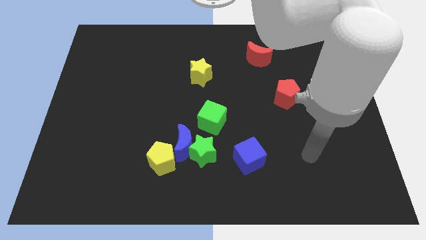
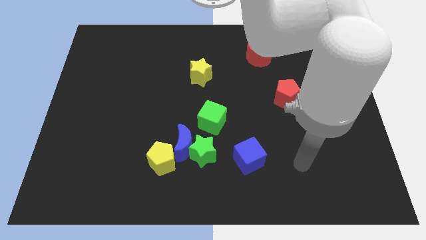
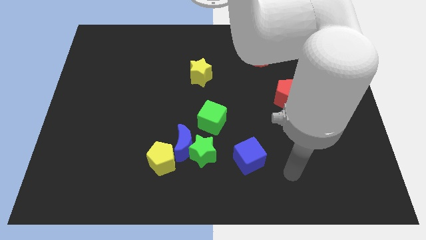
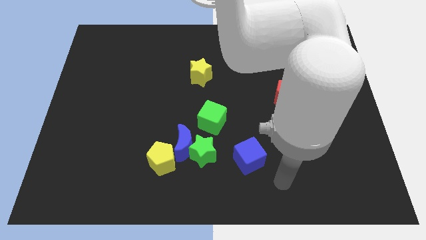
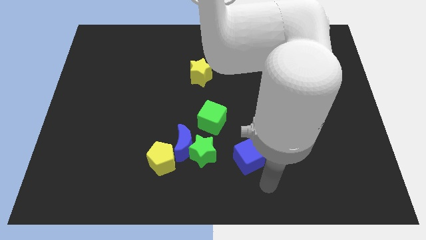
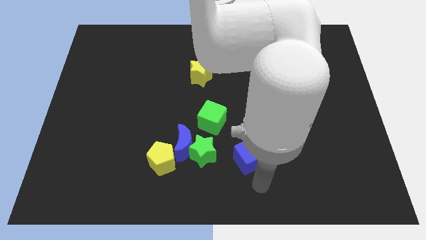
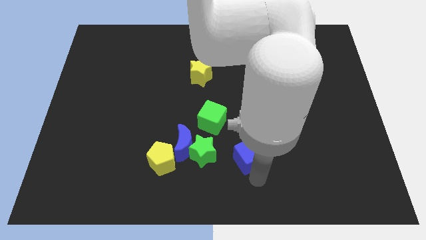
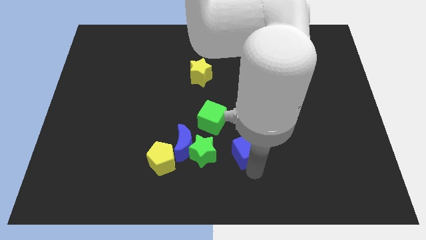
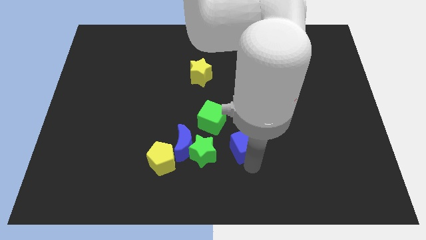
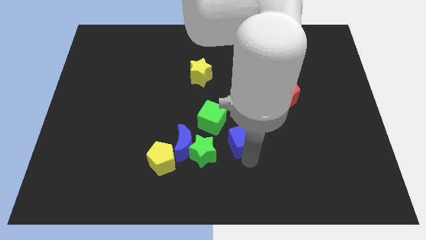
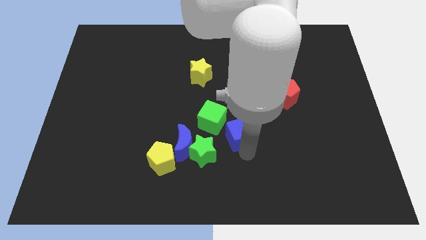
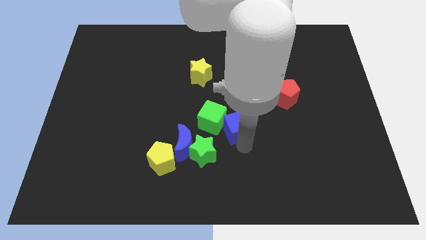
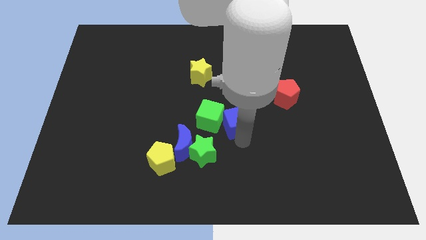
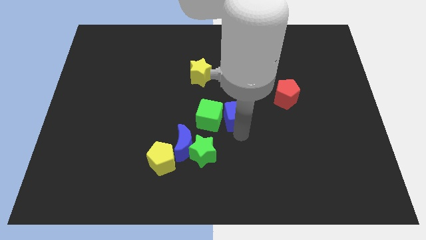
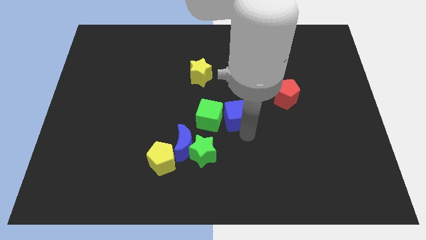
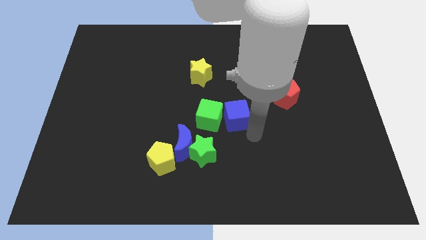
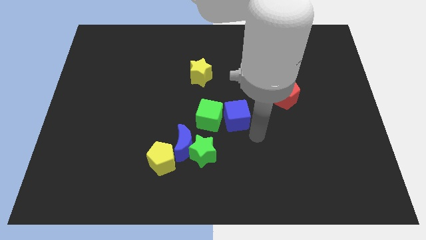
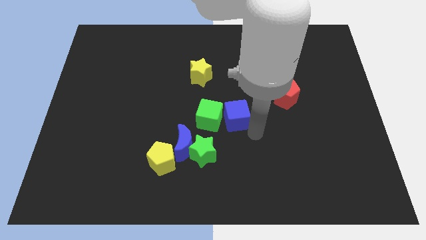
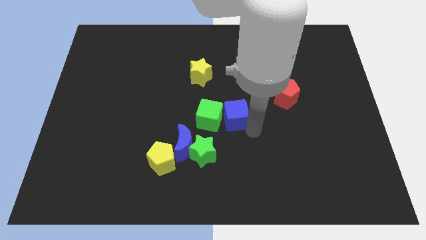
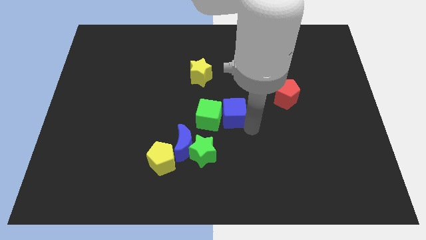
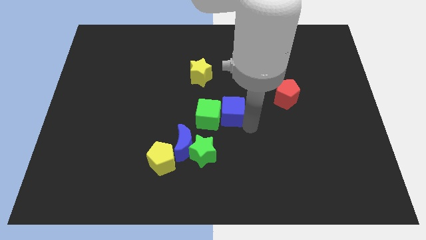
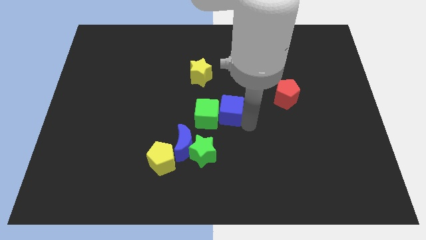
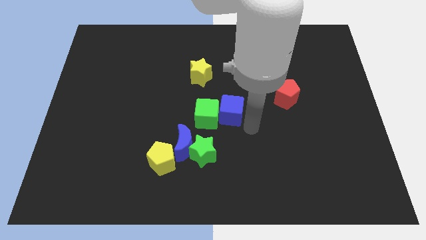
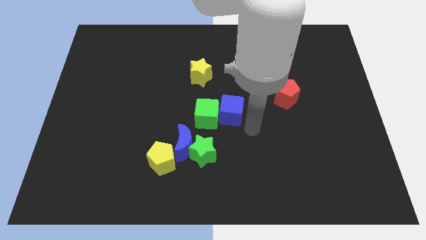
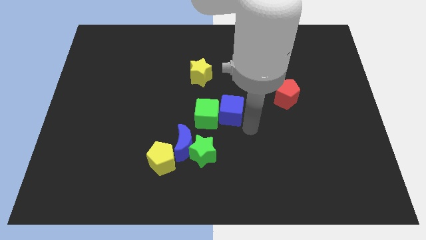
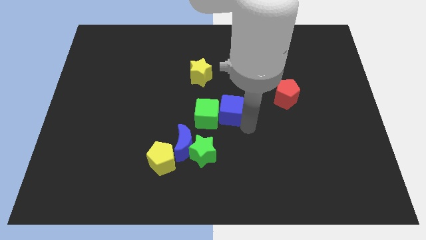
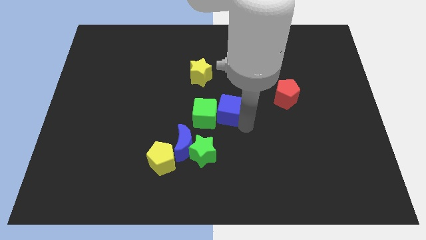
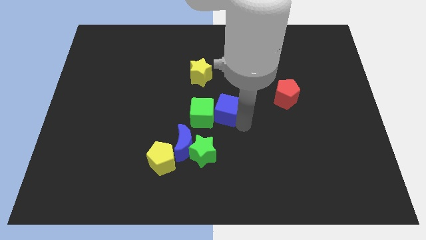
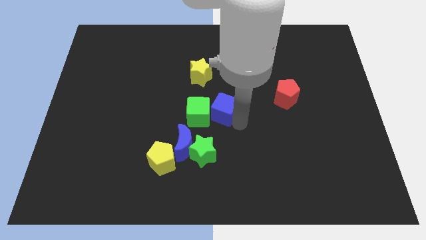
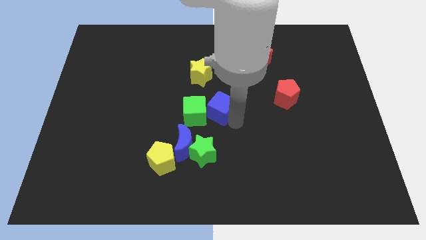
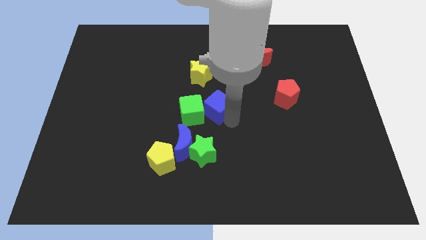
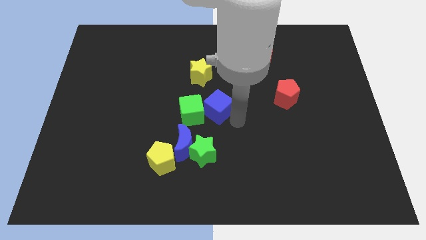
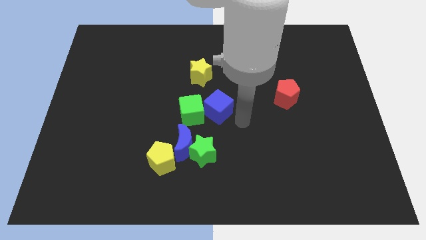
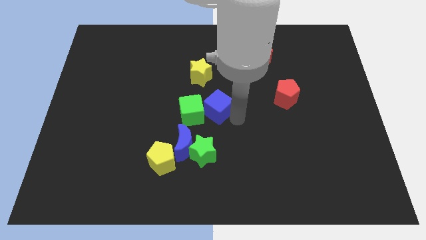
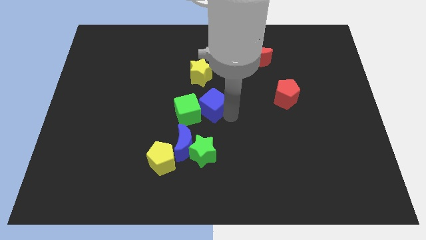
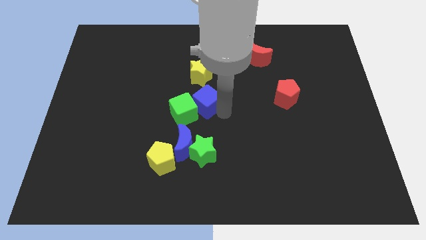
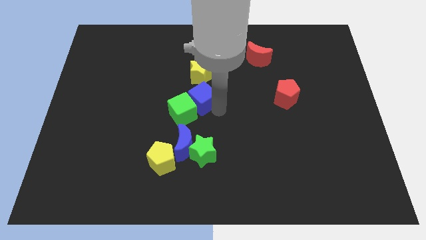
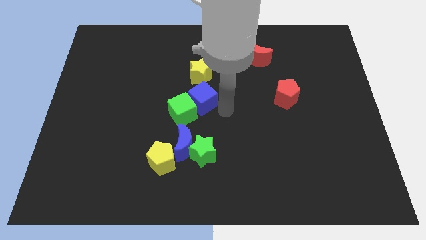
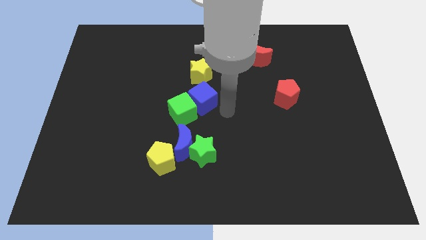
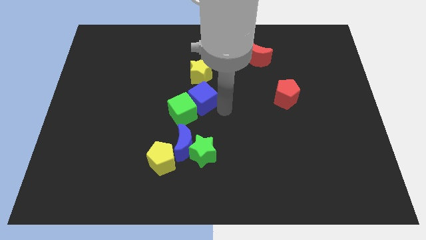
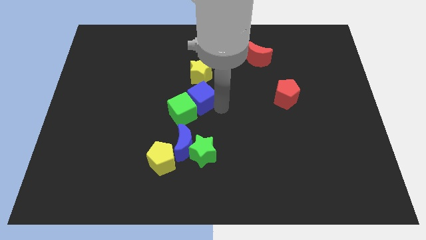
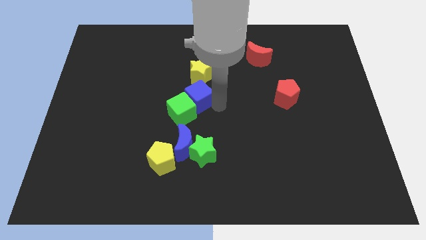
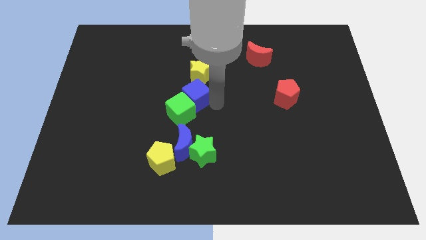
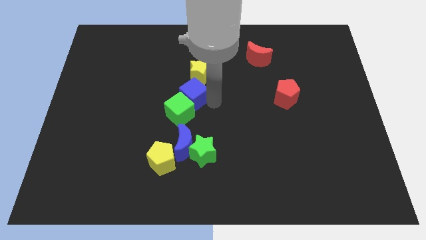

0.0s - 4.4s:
slide the blue cube upwards and to the left diagonally

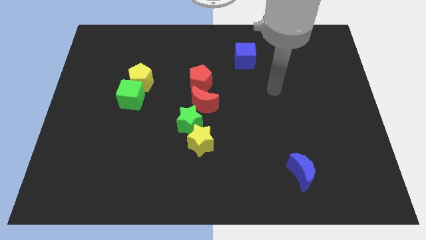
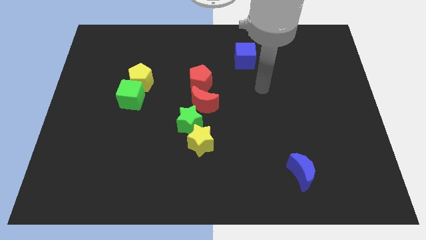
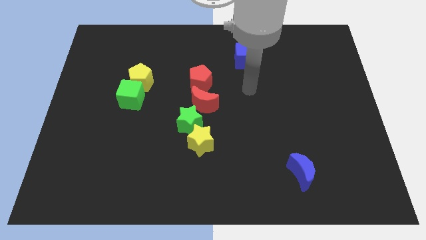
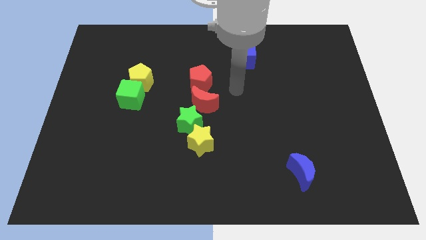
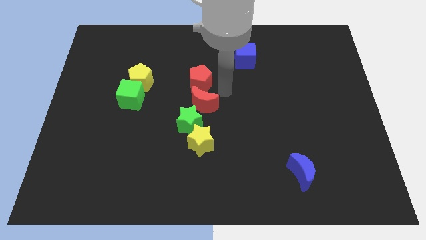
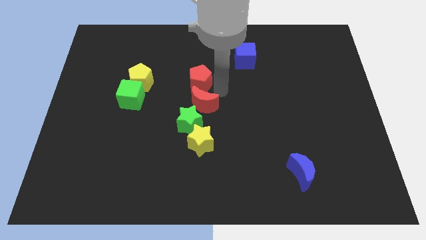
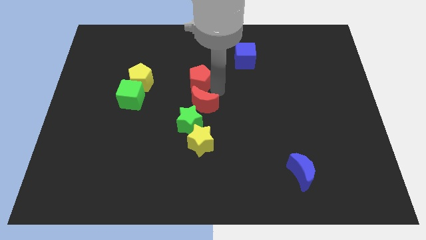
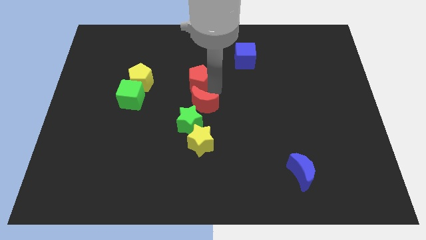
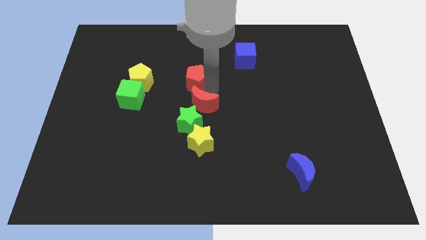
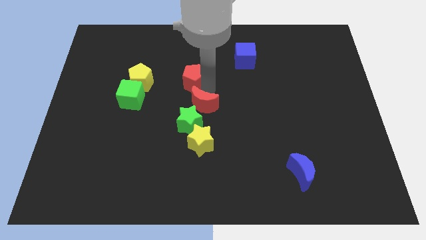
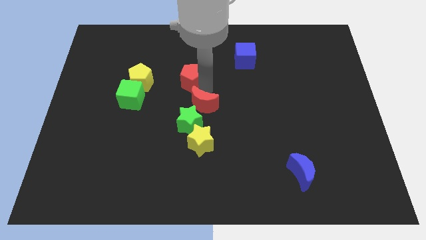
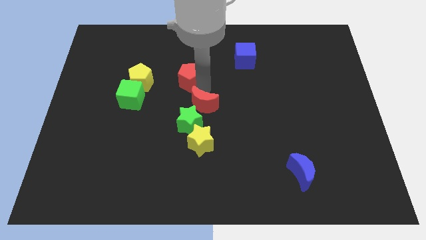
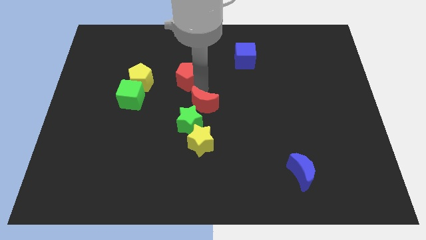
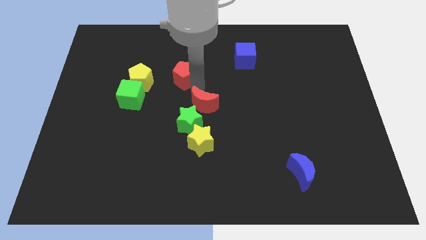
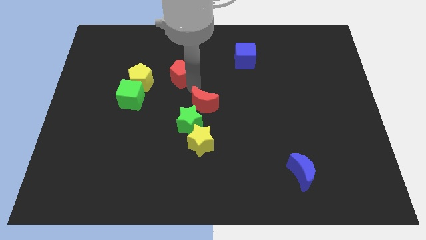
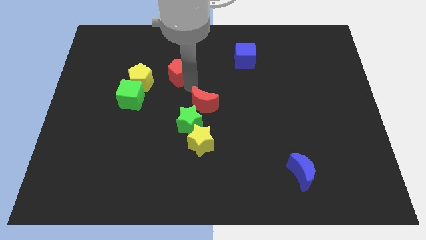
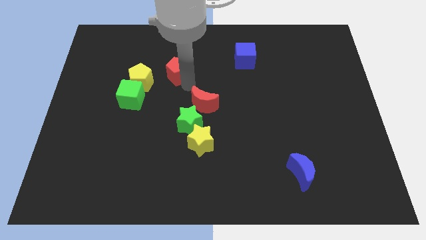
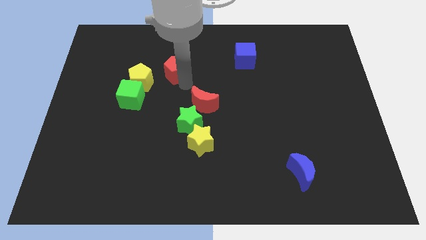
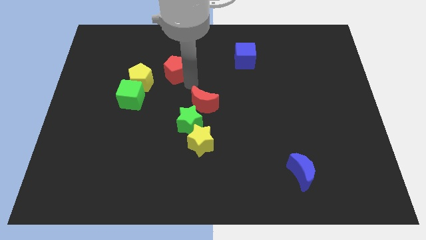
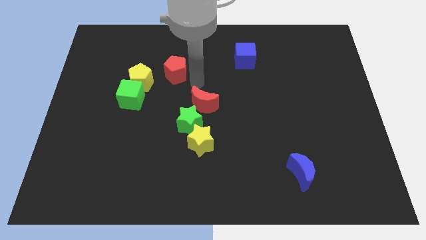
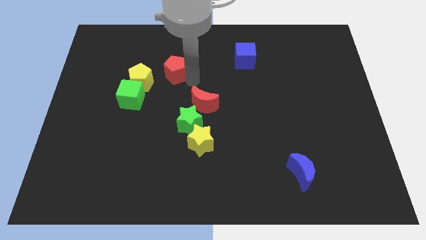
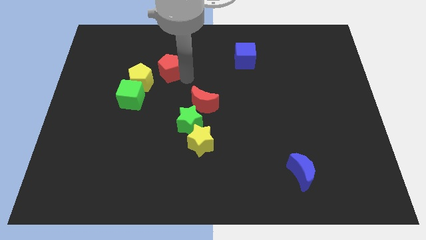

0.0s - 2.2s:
slide the red pentagon slightly to the left

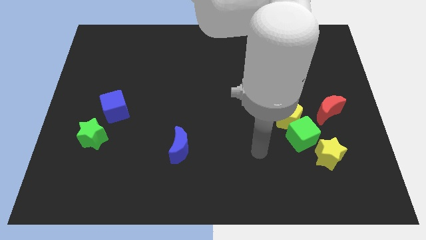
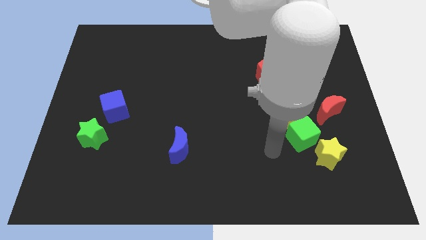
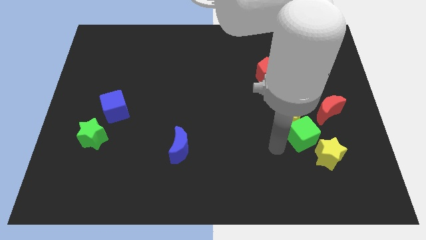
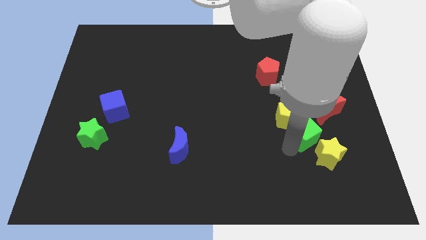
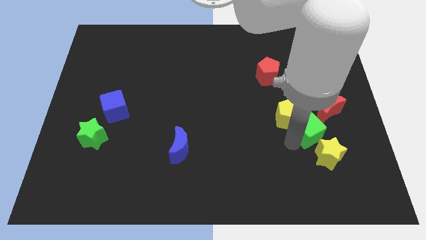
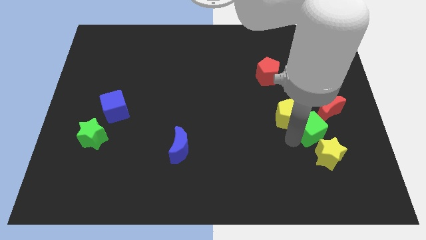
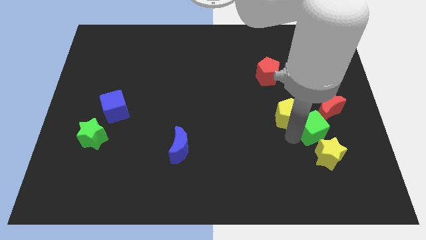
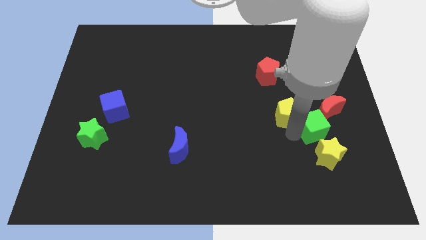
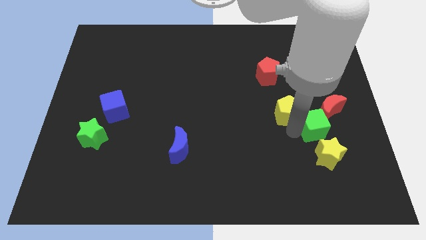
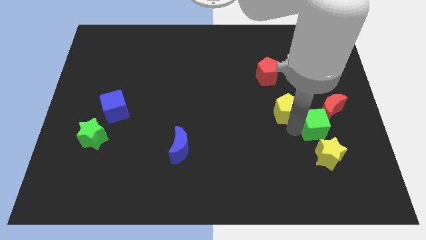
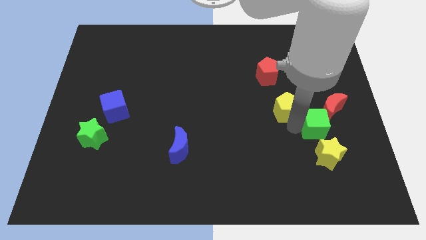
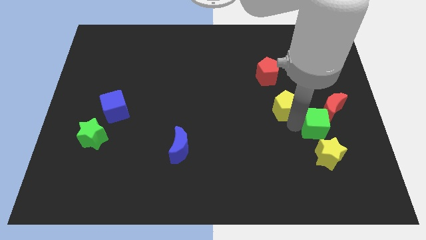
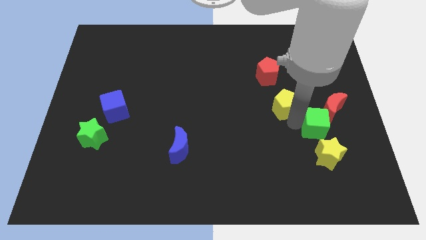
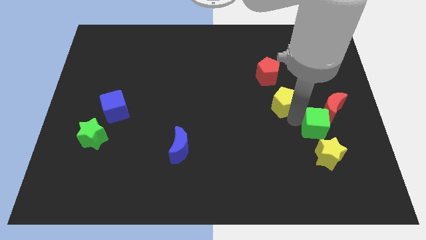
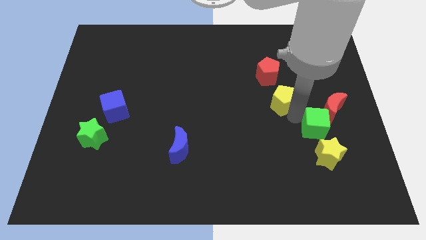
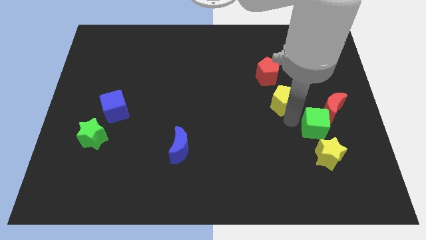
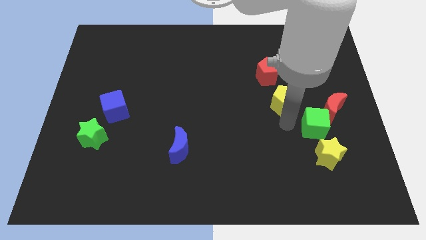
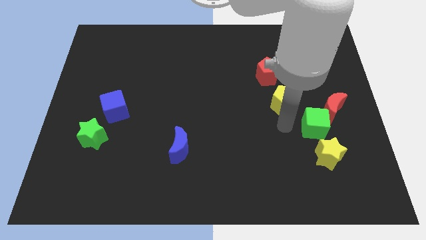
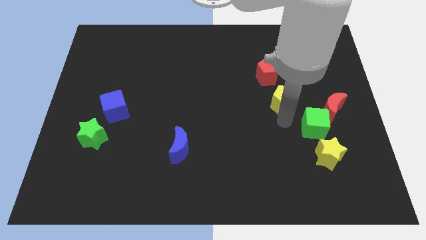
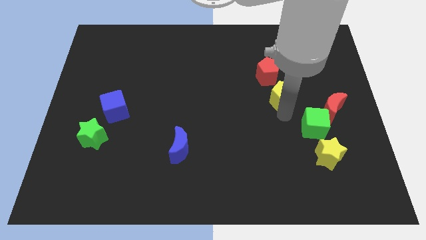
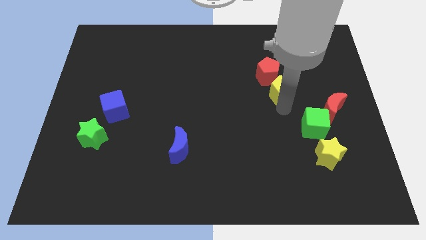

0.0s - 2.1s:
slightly slide the yellow pentagon up
